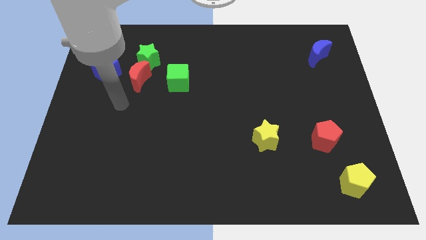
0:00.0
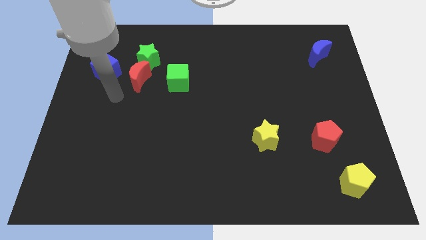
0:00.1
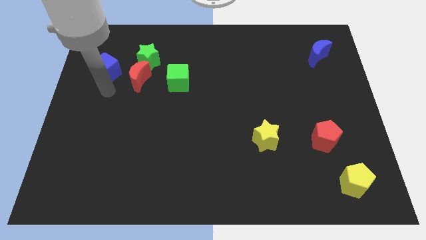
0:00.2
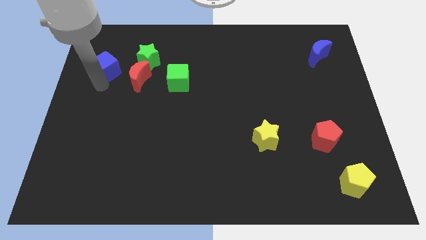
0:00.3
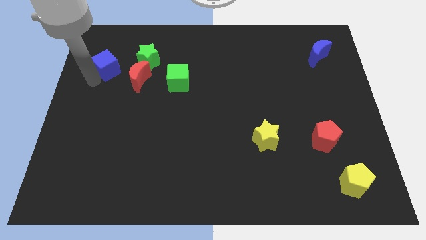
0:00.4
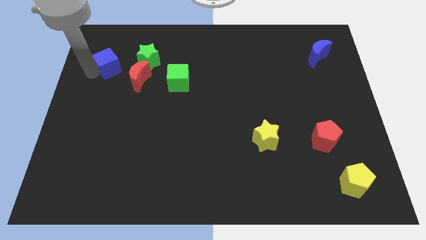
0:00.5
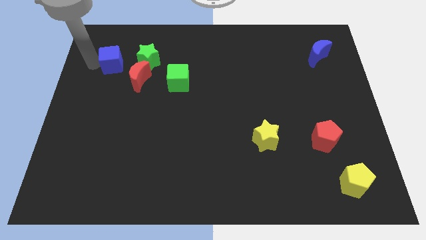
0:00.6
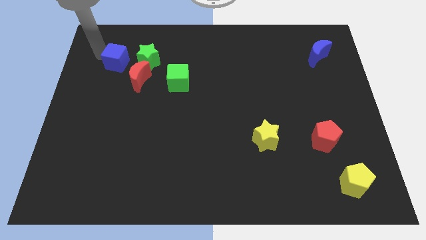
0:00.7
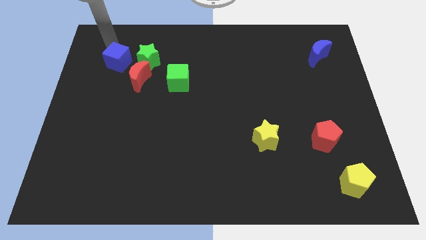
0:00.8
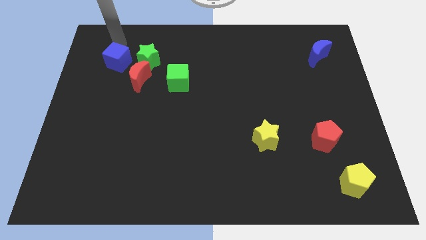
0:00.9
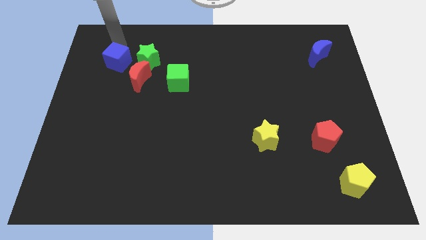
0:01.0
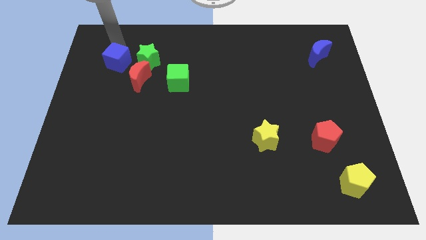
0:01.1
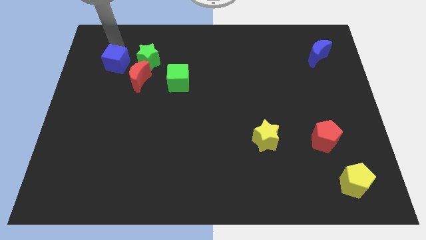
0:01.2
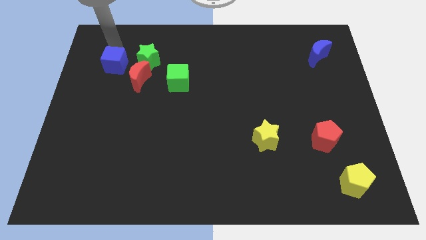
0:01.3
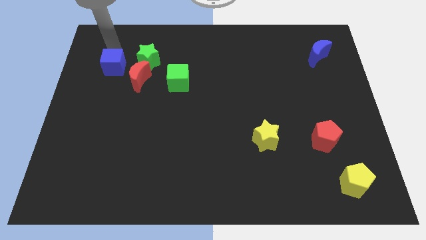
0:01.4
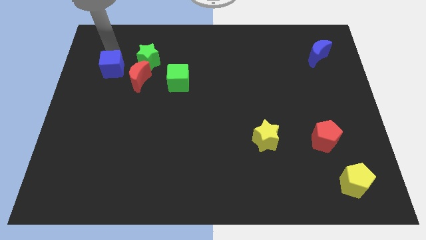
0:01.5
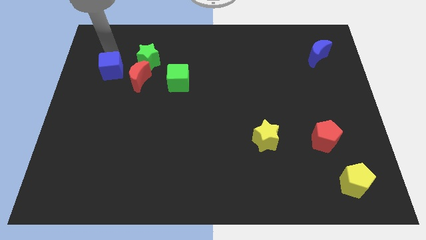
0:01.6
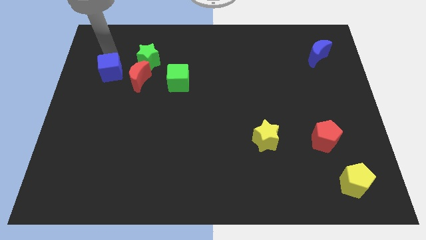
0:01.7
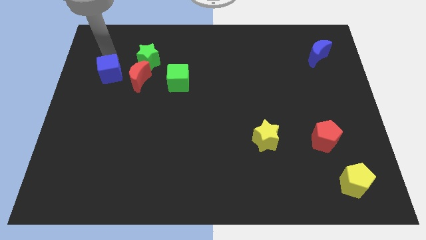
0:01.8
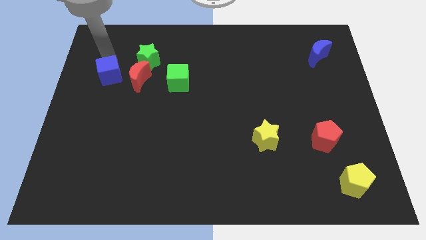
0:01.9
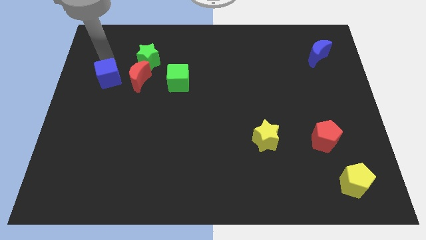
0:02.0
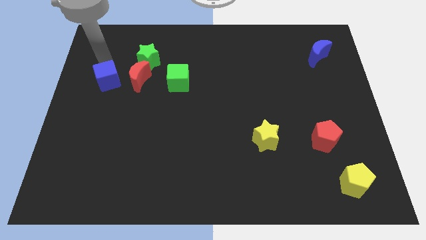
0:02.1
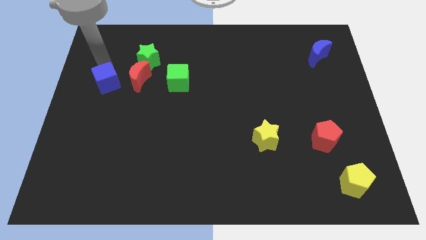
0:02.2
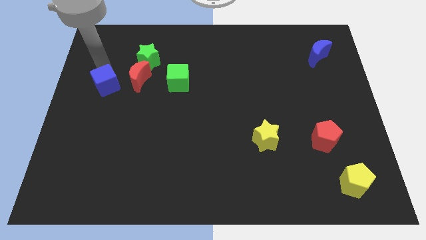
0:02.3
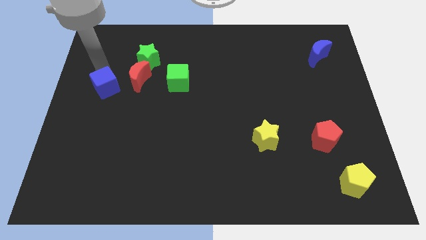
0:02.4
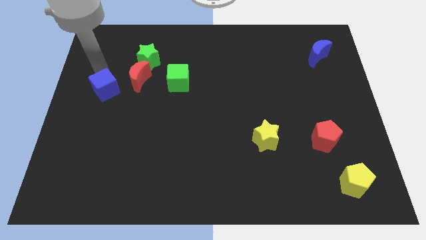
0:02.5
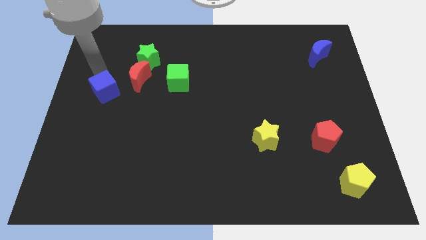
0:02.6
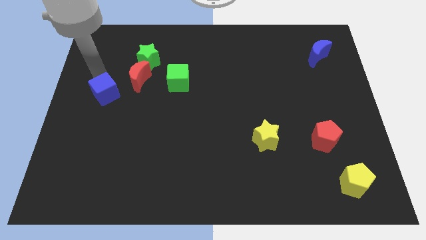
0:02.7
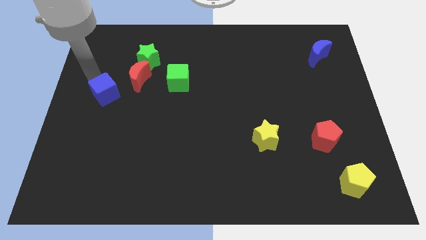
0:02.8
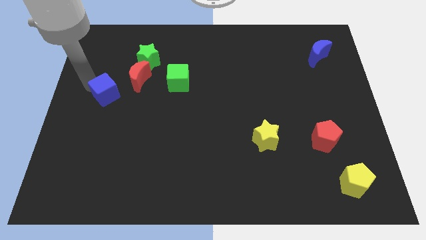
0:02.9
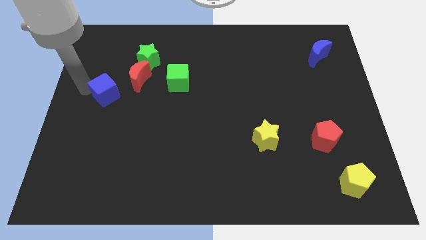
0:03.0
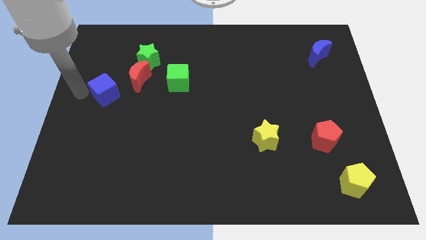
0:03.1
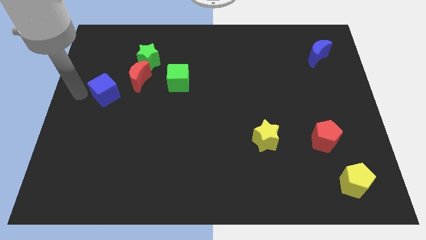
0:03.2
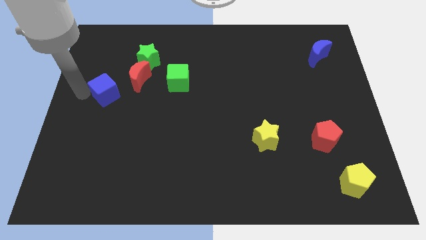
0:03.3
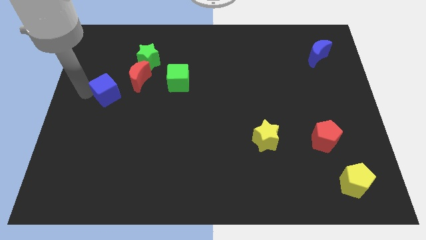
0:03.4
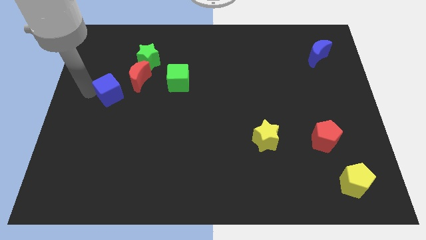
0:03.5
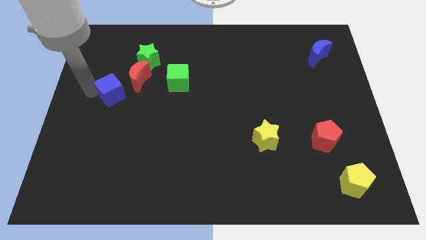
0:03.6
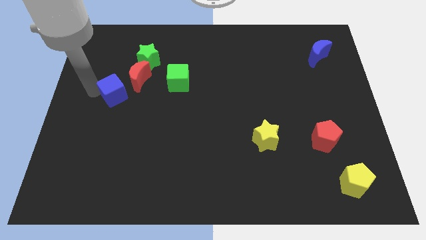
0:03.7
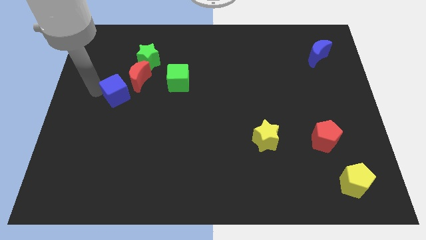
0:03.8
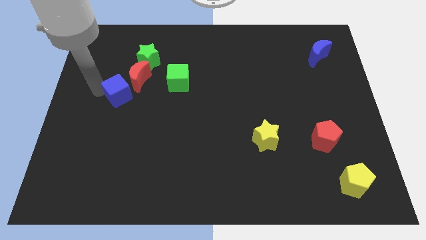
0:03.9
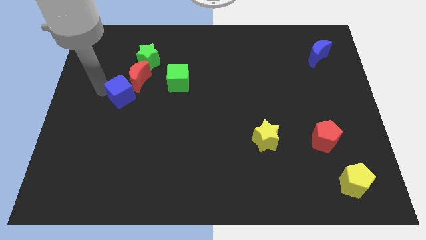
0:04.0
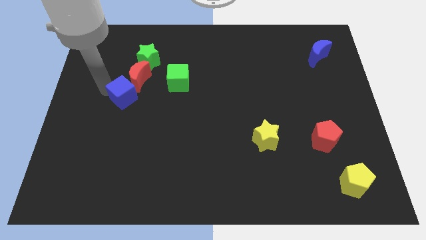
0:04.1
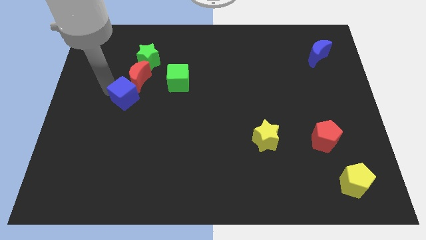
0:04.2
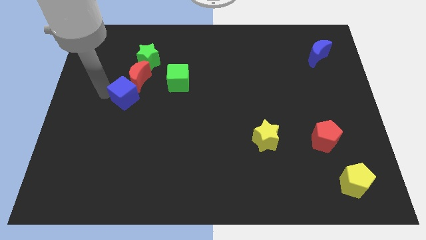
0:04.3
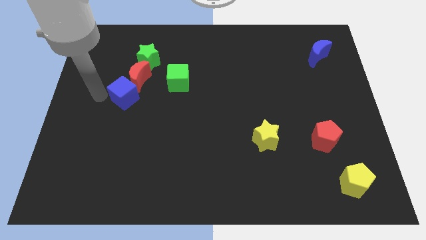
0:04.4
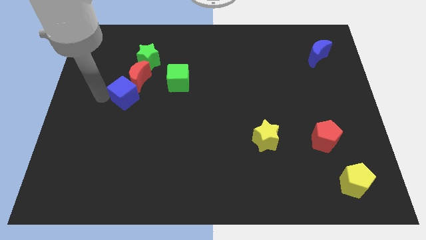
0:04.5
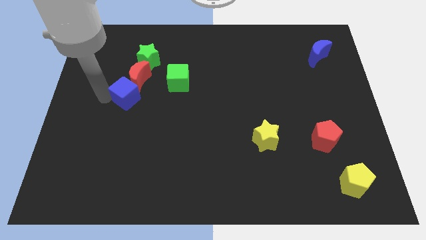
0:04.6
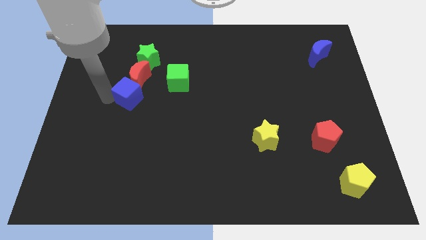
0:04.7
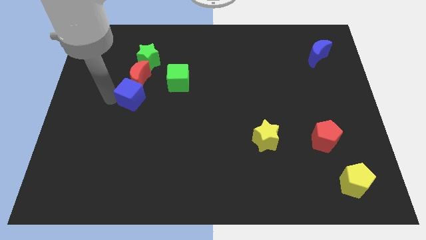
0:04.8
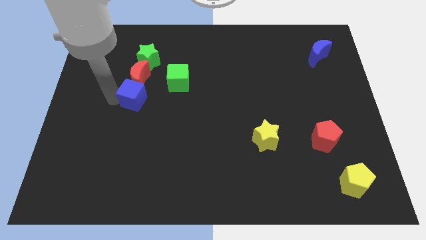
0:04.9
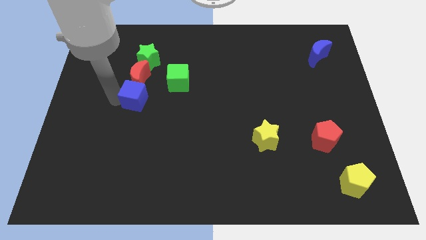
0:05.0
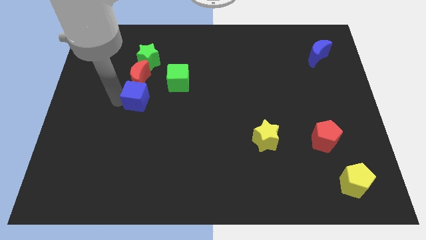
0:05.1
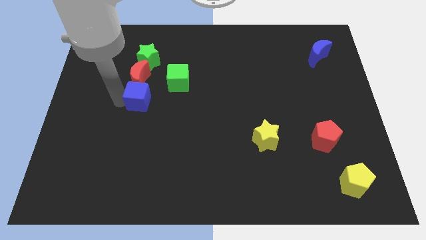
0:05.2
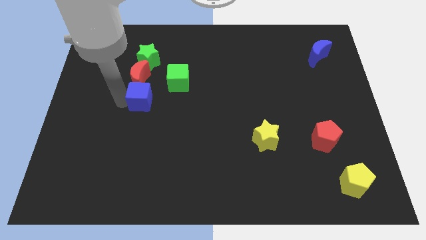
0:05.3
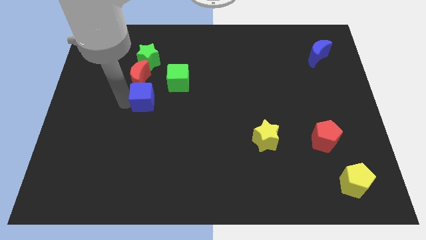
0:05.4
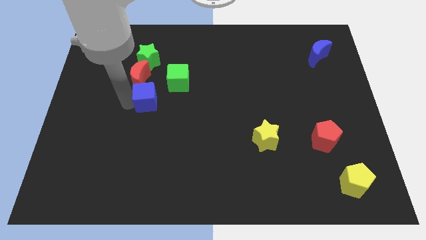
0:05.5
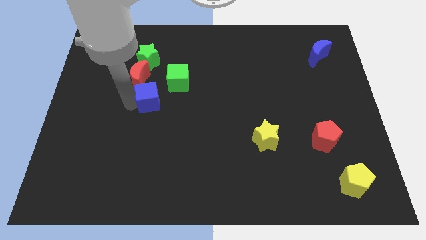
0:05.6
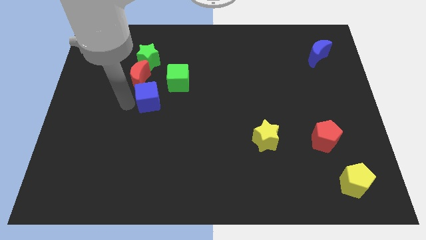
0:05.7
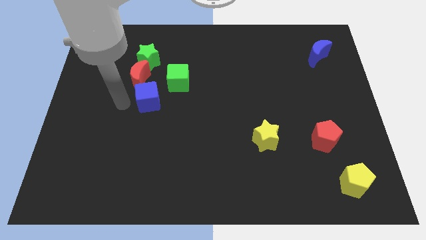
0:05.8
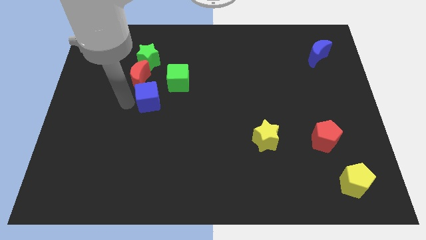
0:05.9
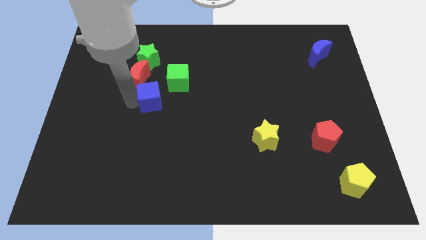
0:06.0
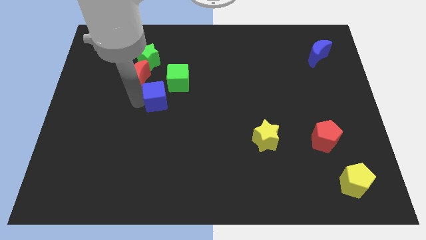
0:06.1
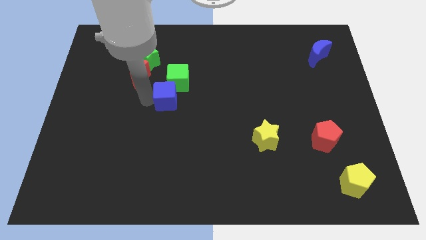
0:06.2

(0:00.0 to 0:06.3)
move the blue cube to the center
